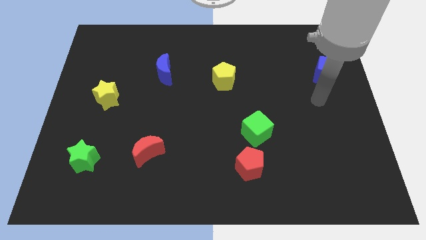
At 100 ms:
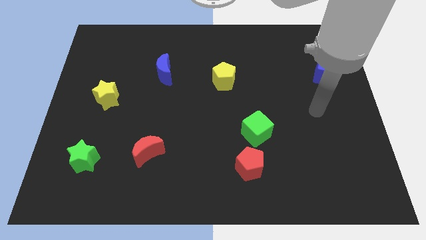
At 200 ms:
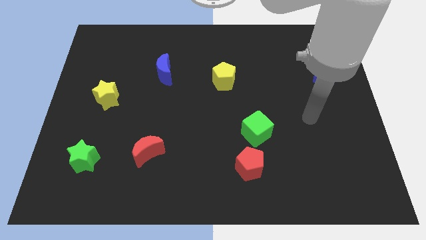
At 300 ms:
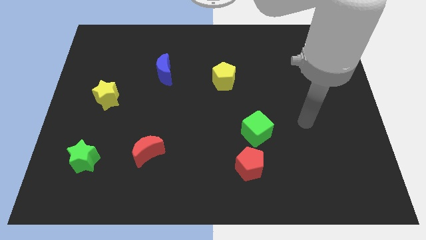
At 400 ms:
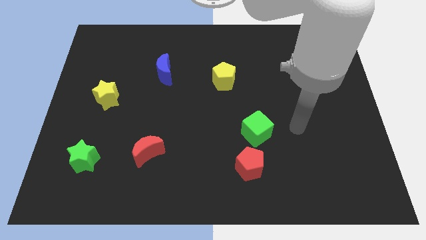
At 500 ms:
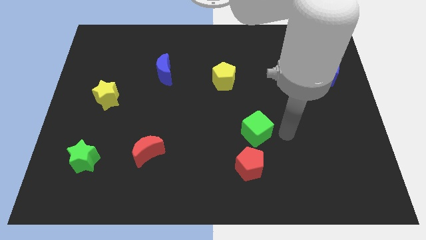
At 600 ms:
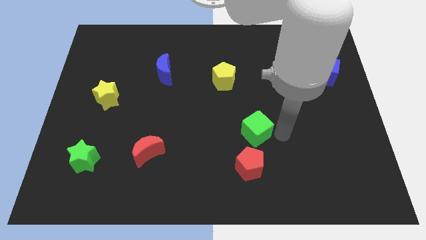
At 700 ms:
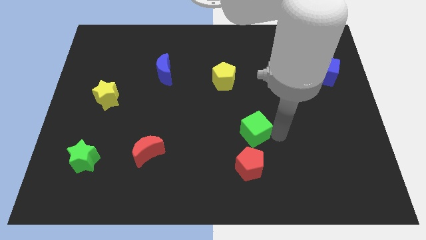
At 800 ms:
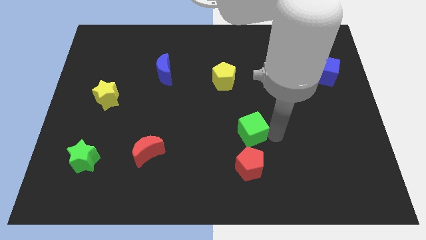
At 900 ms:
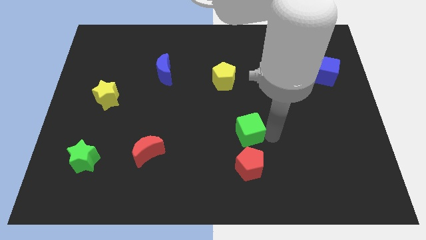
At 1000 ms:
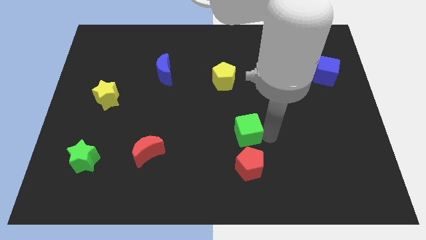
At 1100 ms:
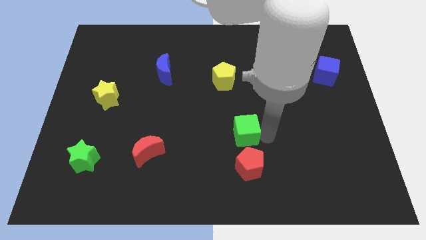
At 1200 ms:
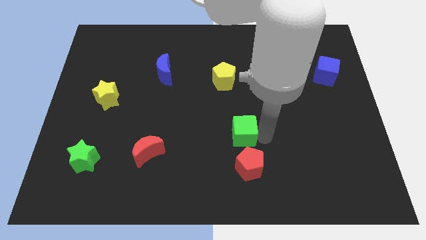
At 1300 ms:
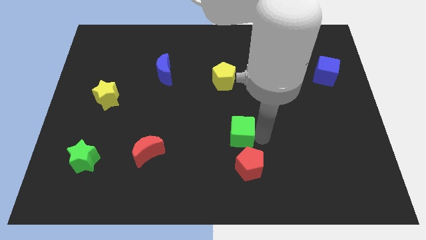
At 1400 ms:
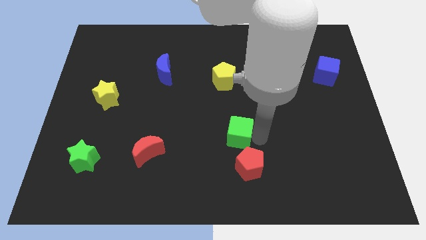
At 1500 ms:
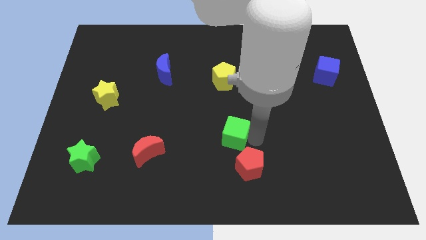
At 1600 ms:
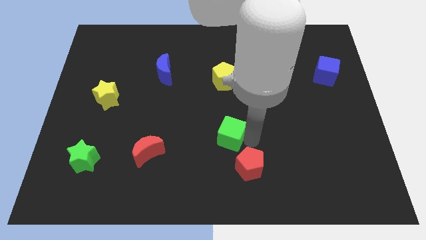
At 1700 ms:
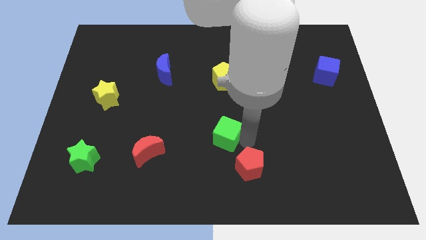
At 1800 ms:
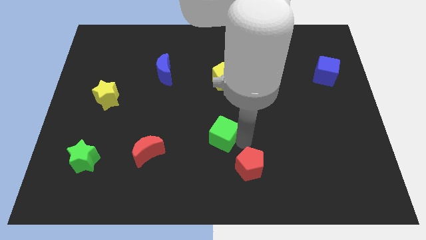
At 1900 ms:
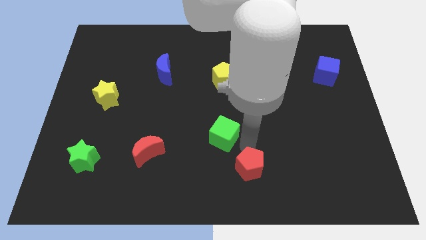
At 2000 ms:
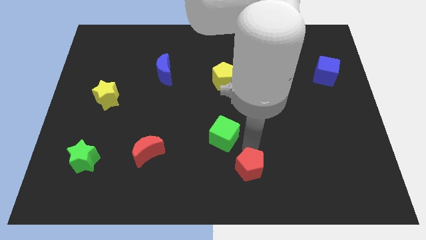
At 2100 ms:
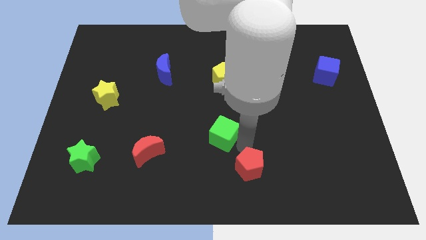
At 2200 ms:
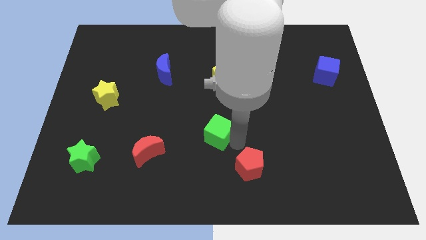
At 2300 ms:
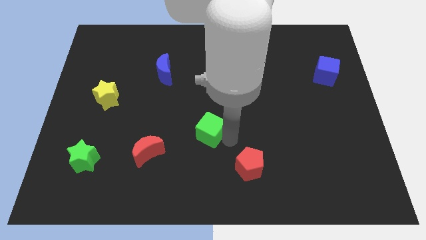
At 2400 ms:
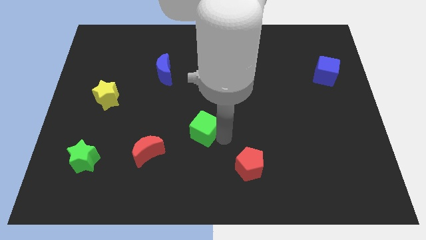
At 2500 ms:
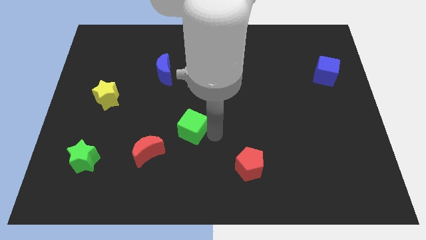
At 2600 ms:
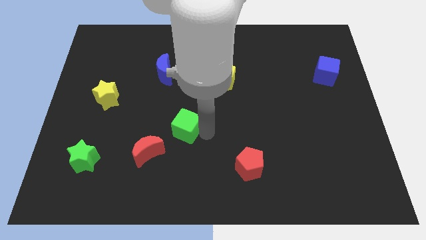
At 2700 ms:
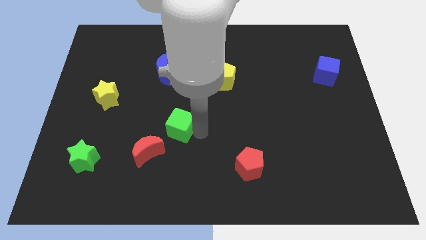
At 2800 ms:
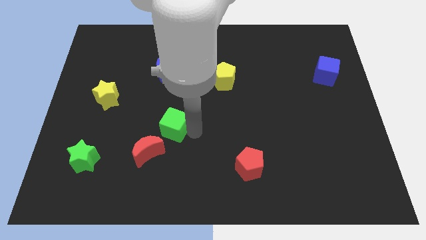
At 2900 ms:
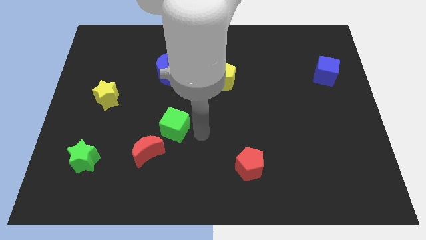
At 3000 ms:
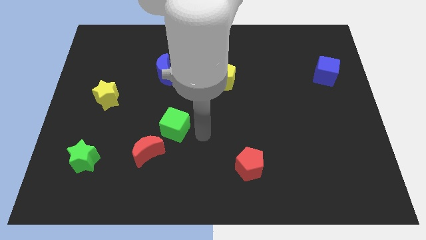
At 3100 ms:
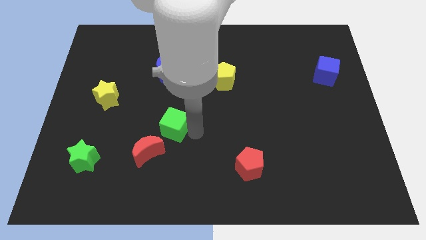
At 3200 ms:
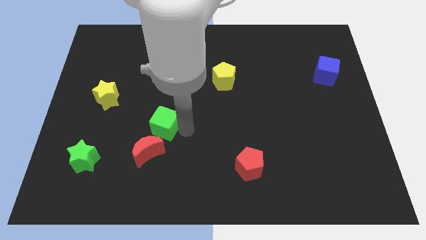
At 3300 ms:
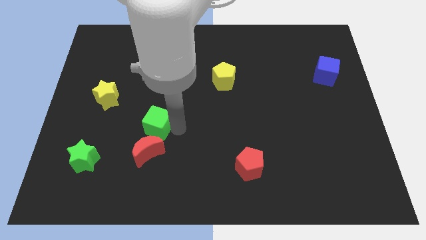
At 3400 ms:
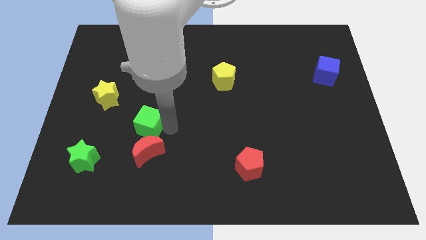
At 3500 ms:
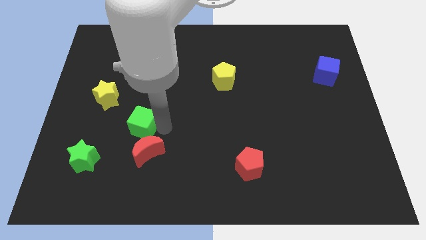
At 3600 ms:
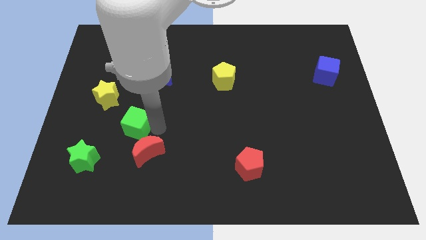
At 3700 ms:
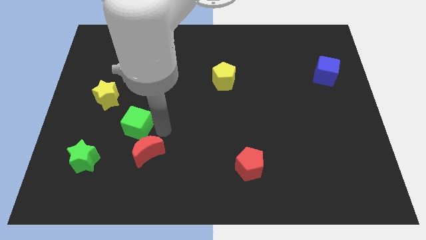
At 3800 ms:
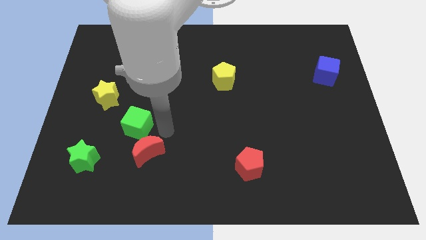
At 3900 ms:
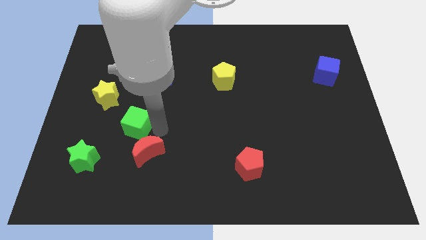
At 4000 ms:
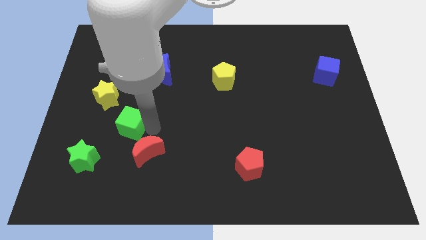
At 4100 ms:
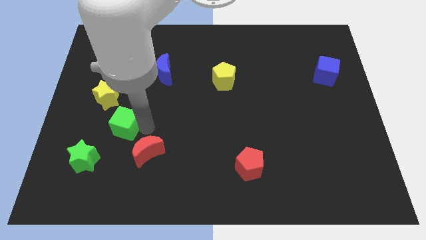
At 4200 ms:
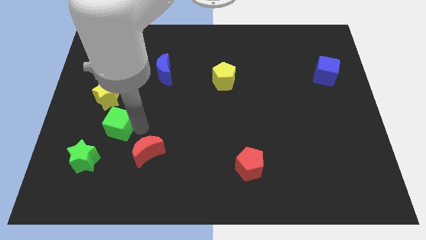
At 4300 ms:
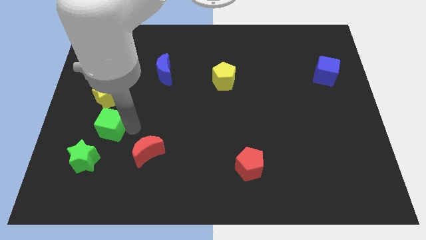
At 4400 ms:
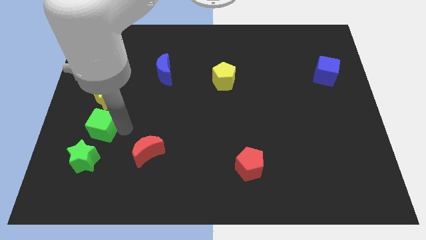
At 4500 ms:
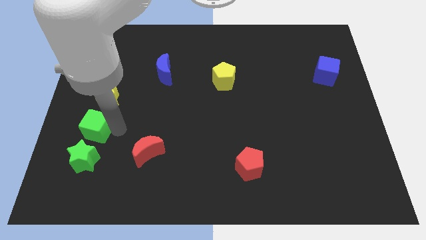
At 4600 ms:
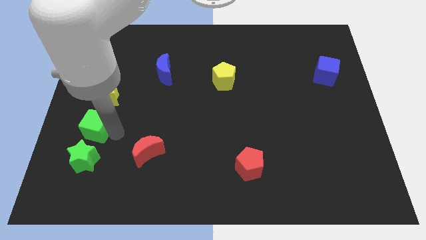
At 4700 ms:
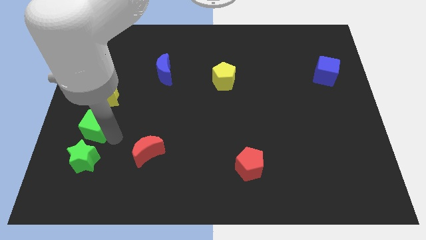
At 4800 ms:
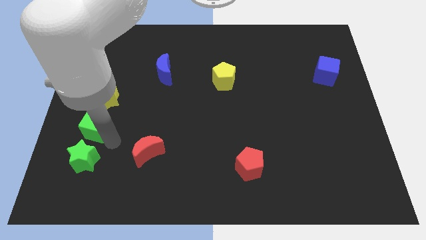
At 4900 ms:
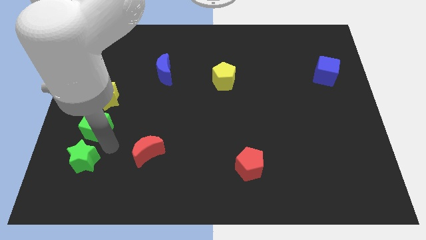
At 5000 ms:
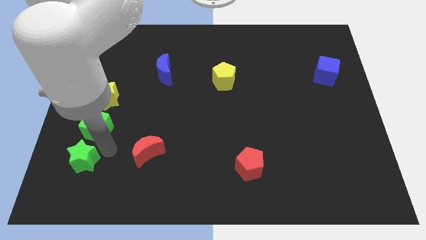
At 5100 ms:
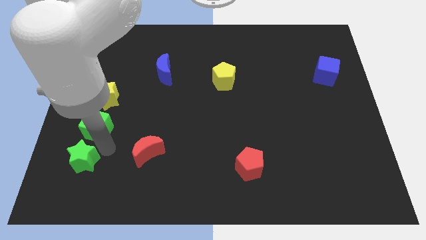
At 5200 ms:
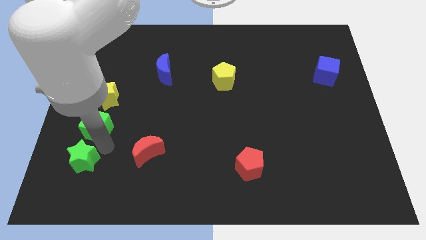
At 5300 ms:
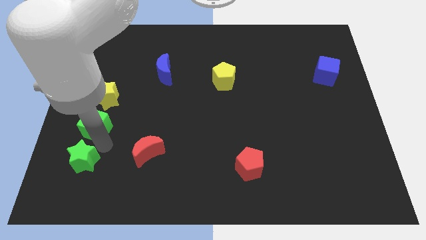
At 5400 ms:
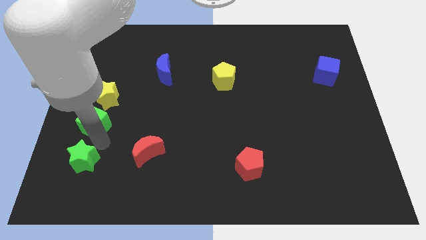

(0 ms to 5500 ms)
put the green cube to the left side

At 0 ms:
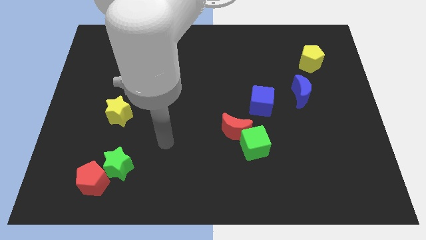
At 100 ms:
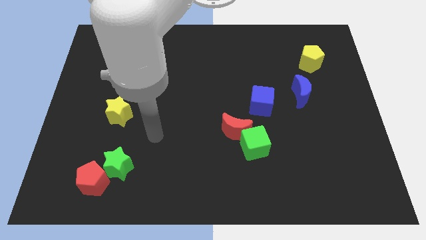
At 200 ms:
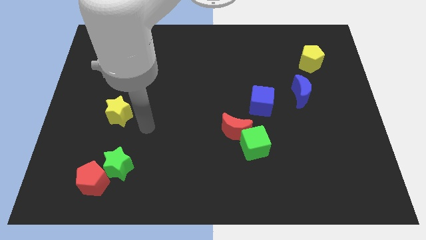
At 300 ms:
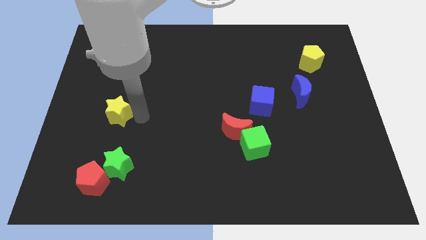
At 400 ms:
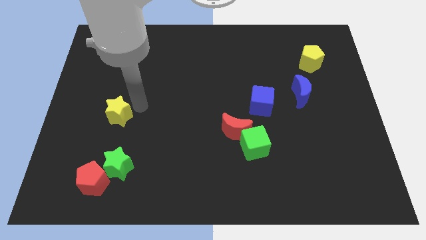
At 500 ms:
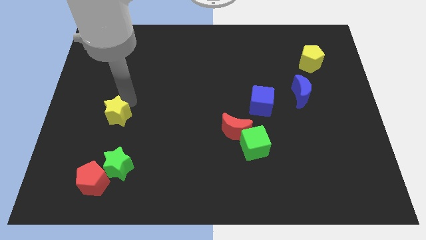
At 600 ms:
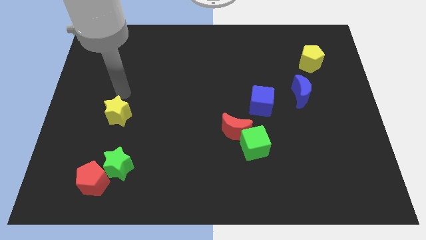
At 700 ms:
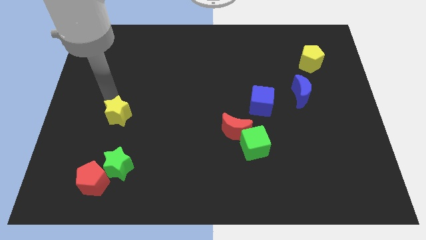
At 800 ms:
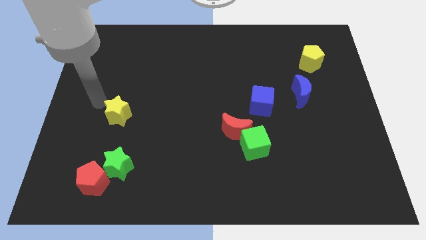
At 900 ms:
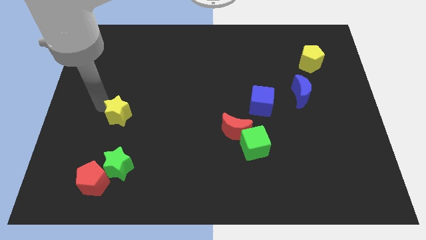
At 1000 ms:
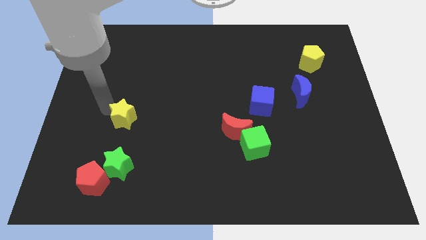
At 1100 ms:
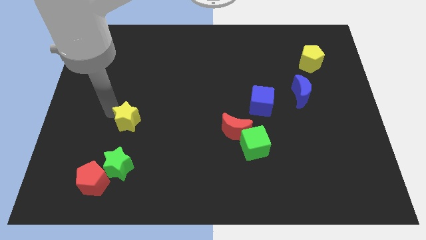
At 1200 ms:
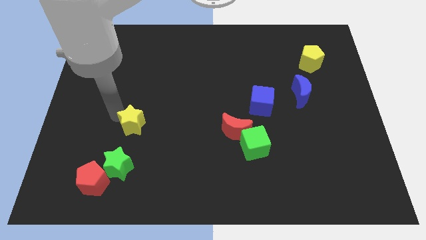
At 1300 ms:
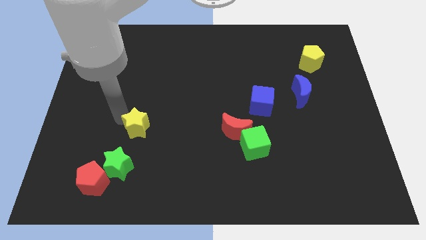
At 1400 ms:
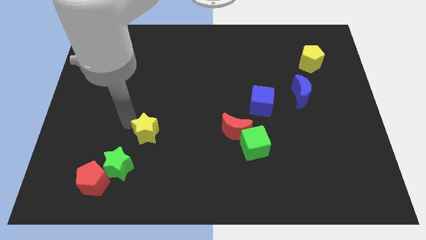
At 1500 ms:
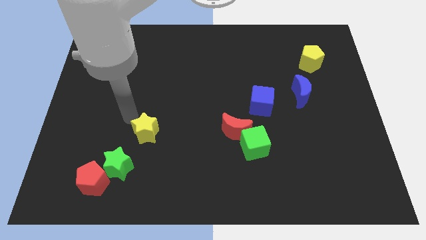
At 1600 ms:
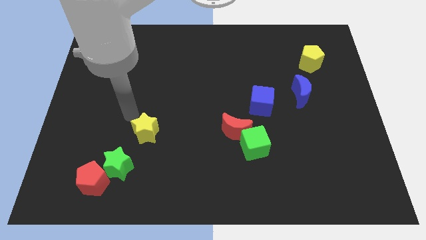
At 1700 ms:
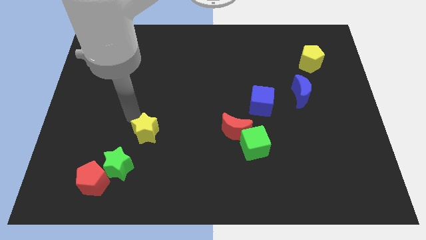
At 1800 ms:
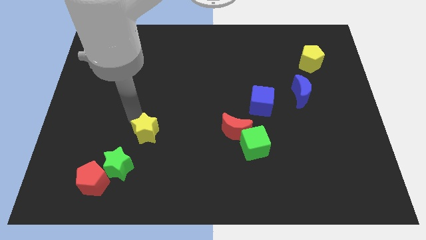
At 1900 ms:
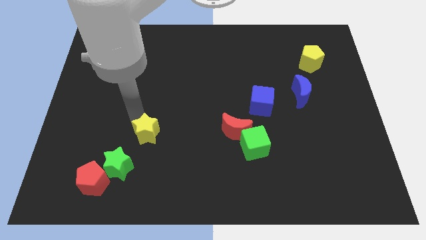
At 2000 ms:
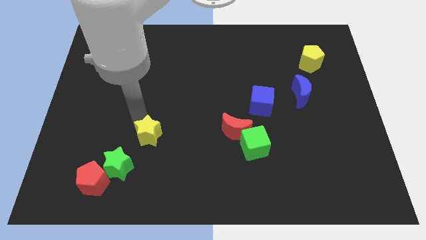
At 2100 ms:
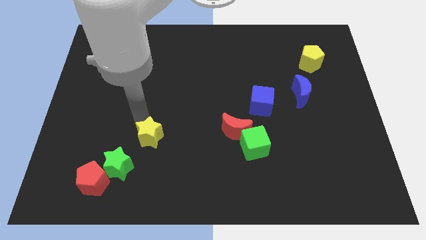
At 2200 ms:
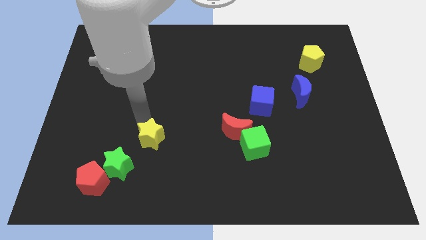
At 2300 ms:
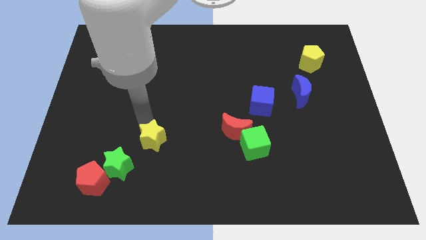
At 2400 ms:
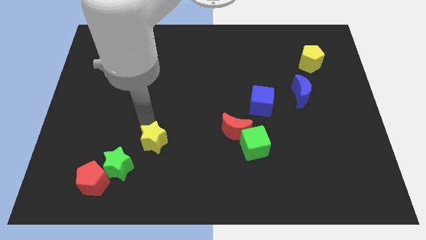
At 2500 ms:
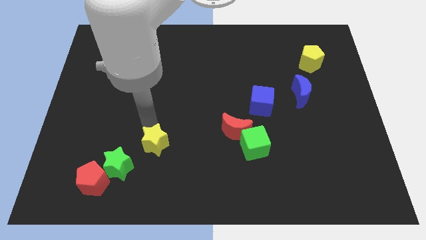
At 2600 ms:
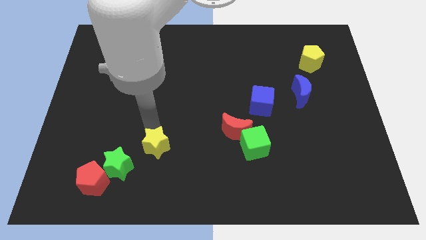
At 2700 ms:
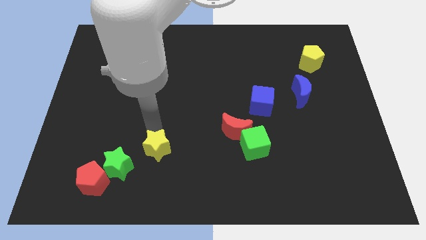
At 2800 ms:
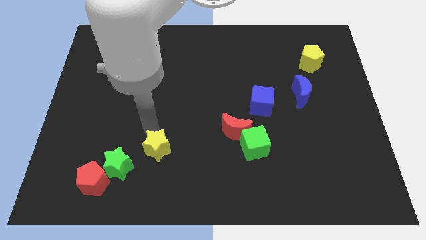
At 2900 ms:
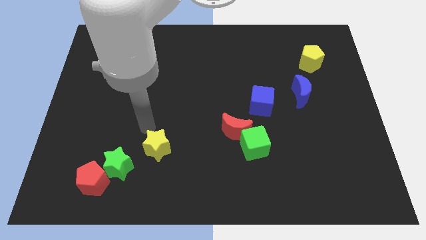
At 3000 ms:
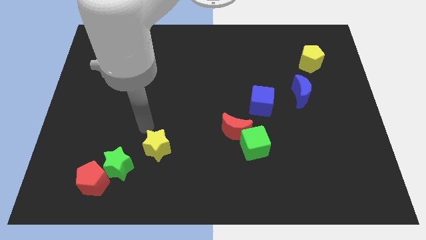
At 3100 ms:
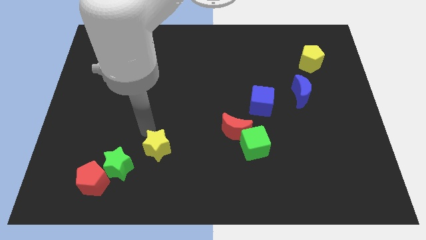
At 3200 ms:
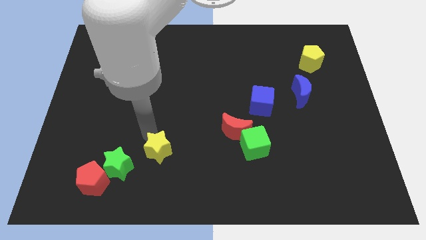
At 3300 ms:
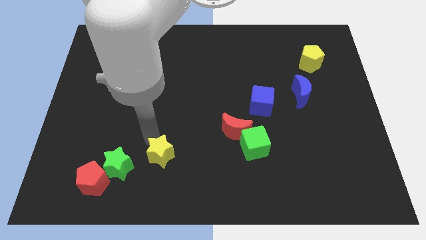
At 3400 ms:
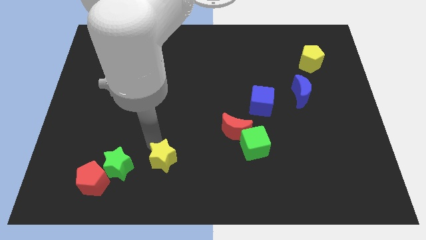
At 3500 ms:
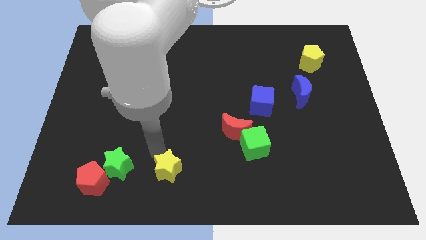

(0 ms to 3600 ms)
move the yellow star to the bottom side
